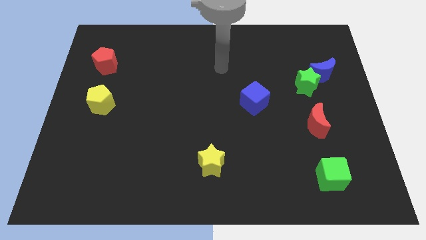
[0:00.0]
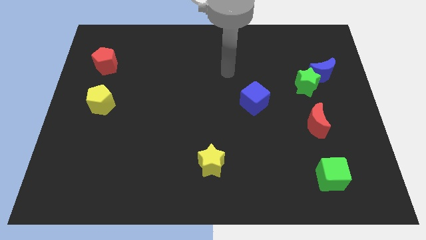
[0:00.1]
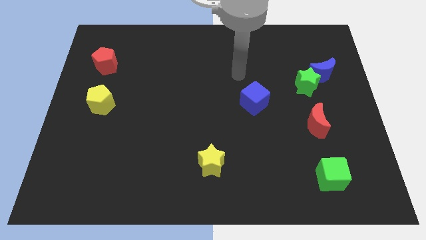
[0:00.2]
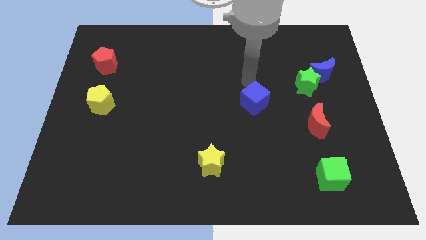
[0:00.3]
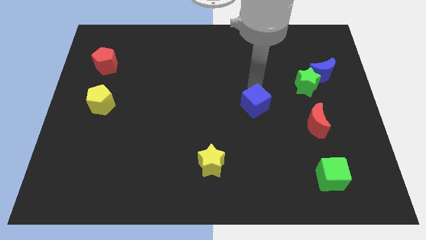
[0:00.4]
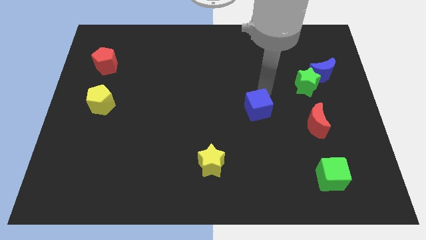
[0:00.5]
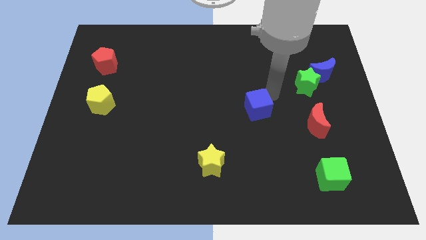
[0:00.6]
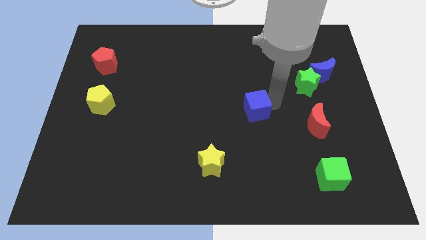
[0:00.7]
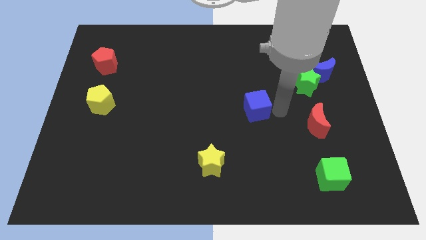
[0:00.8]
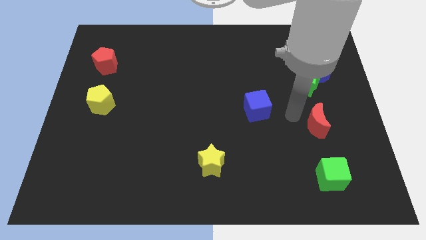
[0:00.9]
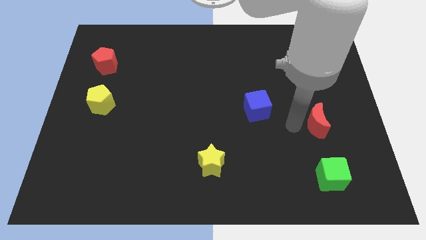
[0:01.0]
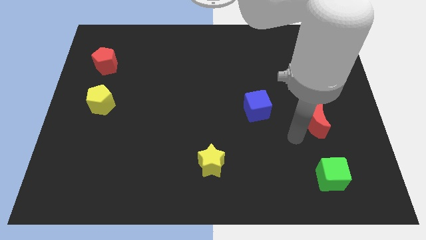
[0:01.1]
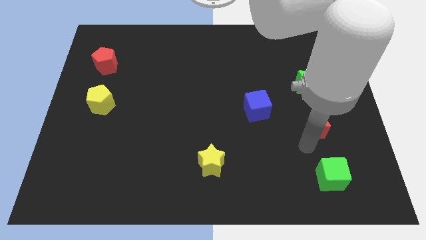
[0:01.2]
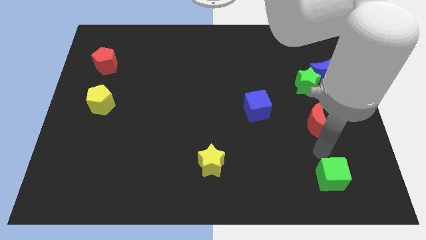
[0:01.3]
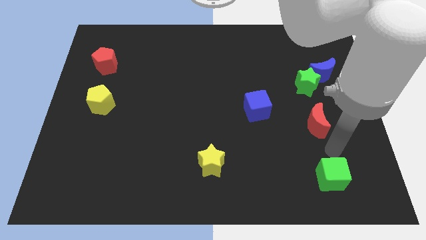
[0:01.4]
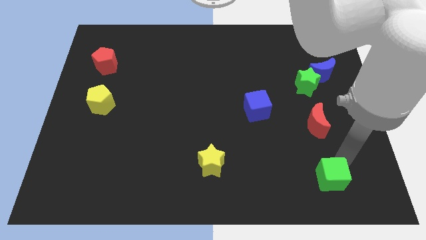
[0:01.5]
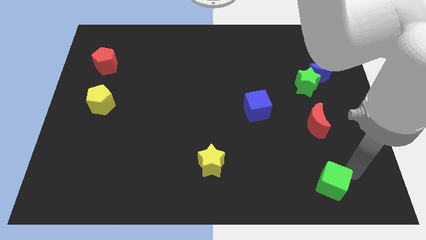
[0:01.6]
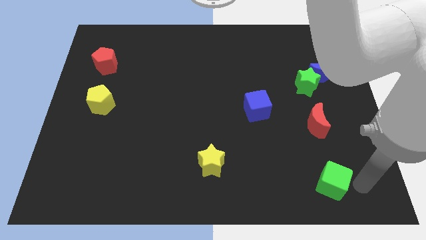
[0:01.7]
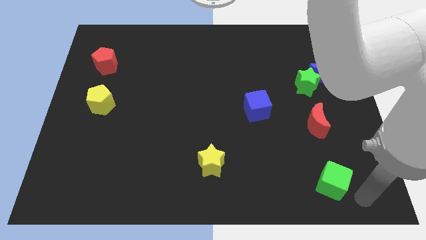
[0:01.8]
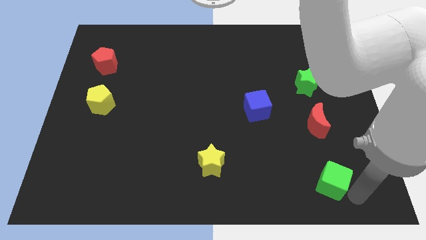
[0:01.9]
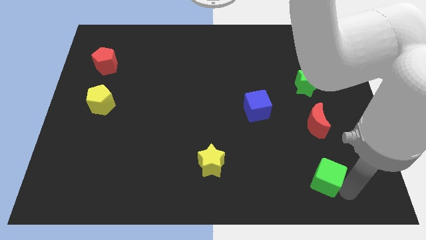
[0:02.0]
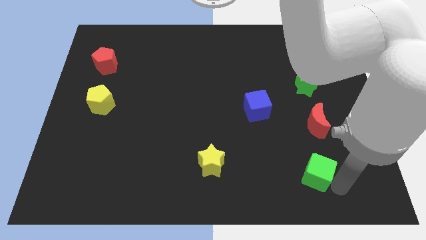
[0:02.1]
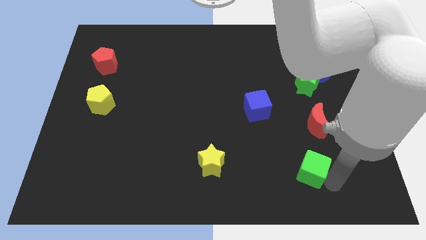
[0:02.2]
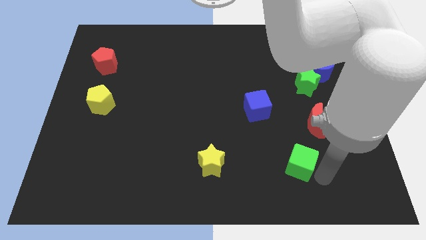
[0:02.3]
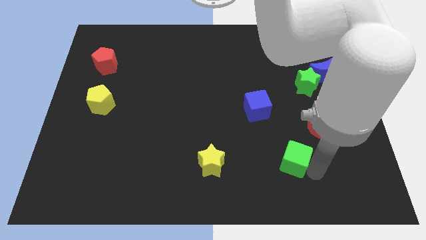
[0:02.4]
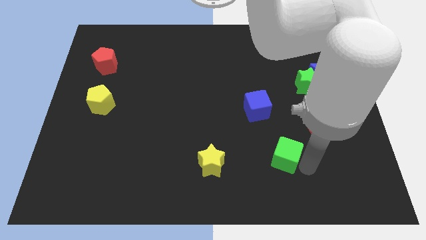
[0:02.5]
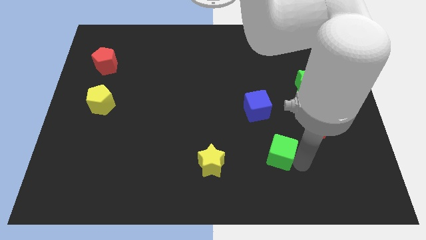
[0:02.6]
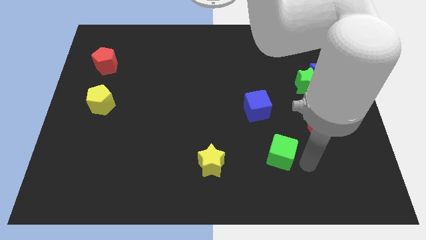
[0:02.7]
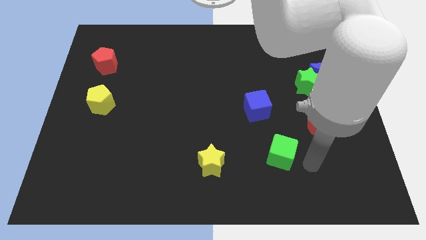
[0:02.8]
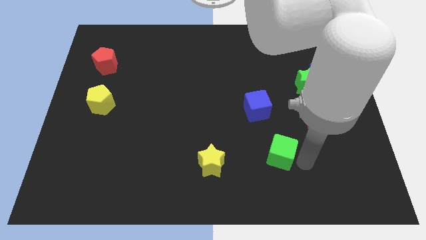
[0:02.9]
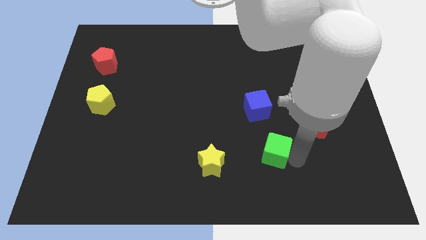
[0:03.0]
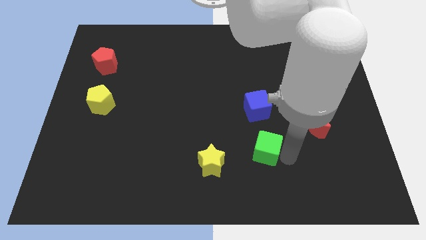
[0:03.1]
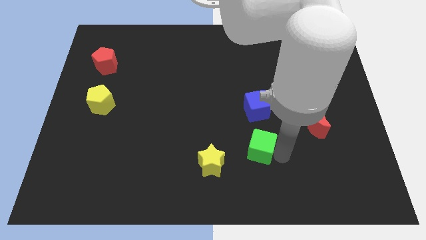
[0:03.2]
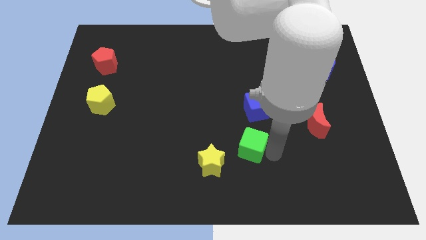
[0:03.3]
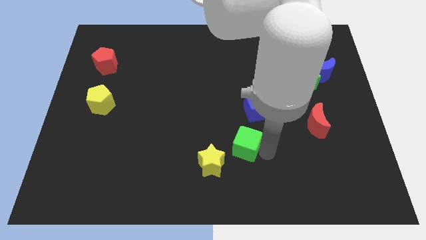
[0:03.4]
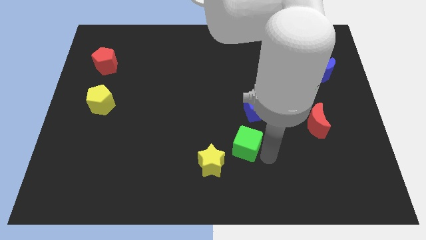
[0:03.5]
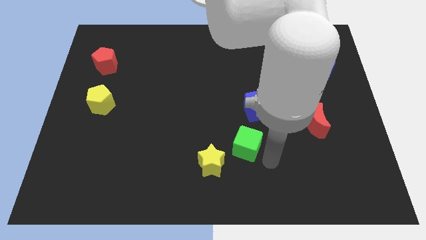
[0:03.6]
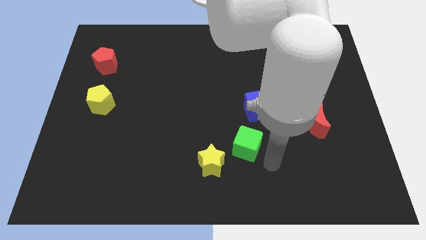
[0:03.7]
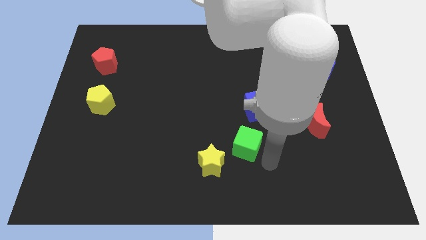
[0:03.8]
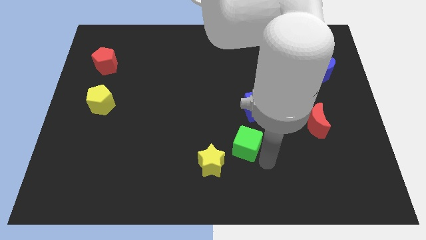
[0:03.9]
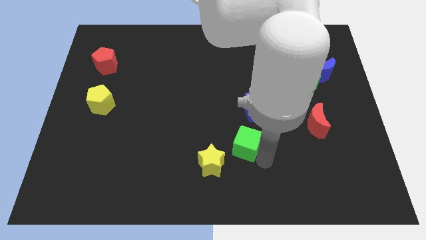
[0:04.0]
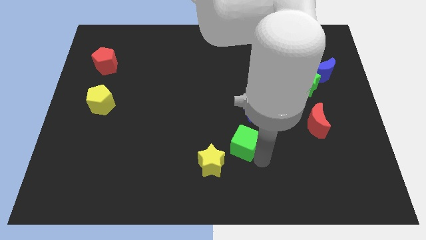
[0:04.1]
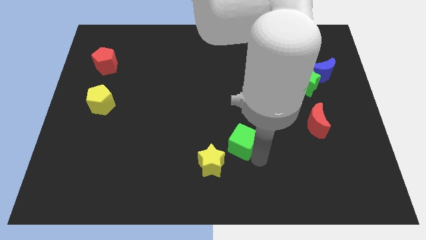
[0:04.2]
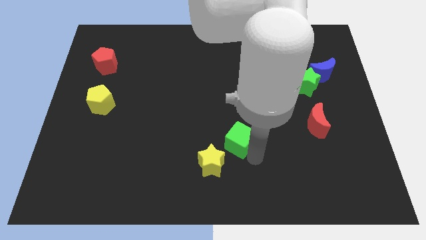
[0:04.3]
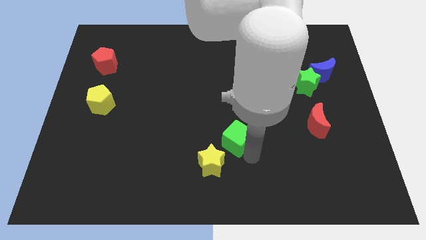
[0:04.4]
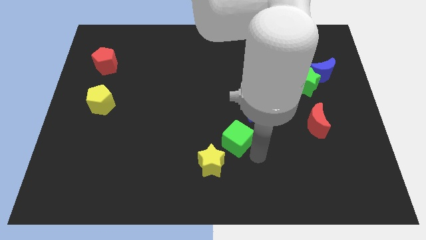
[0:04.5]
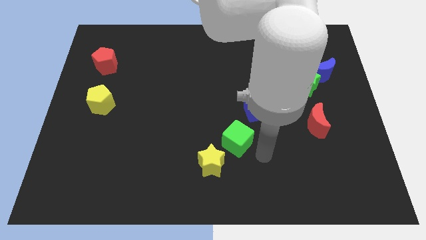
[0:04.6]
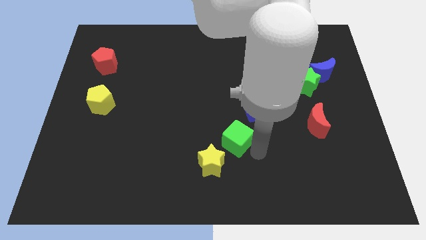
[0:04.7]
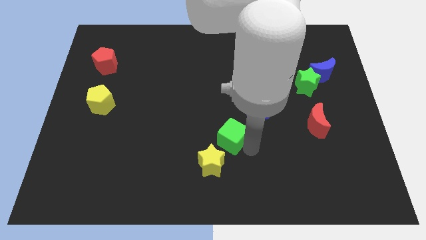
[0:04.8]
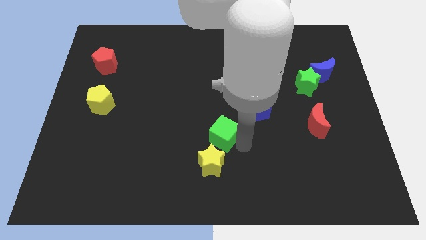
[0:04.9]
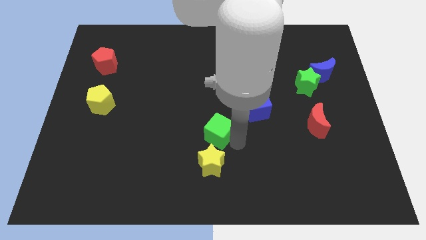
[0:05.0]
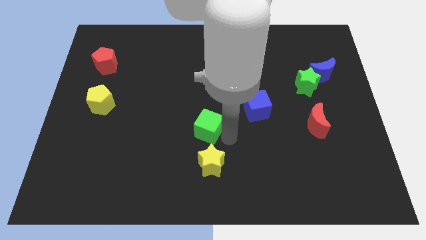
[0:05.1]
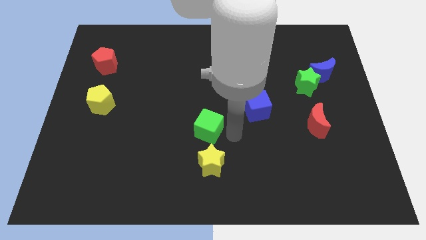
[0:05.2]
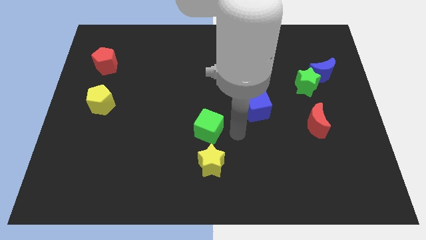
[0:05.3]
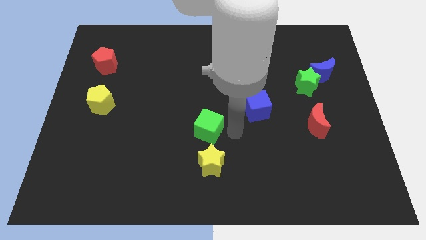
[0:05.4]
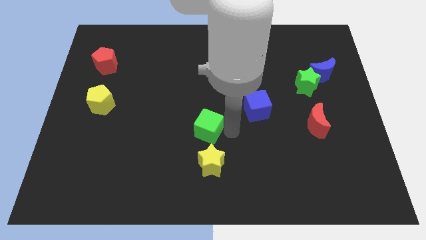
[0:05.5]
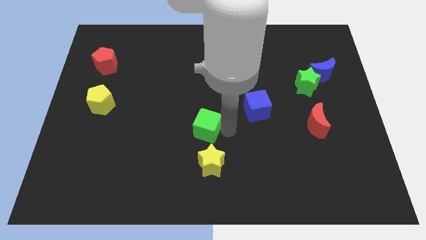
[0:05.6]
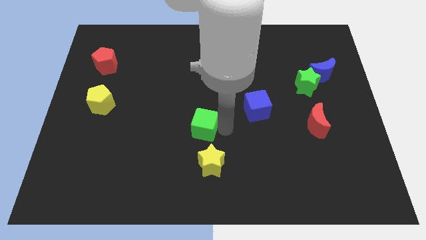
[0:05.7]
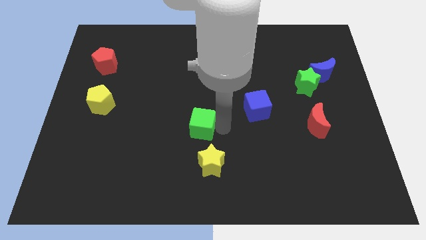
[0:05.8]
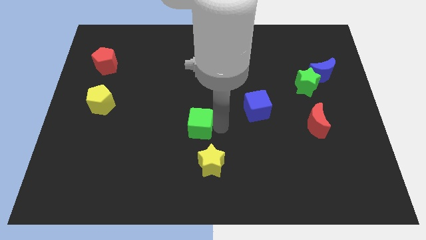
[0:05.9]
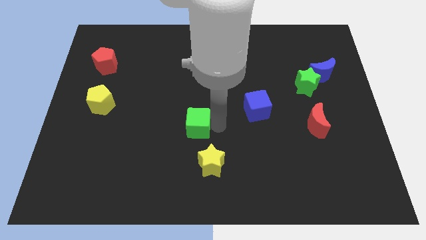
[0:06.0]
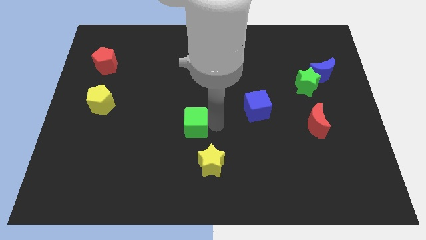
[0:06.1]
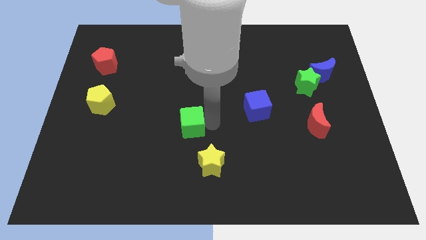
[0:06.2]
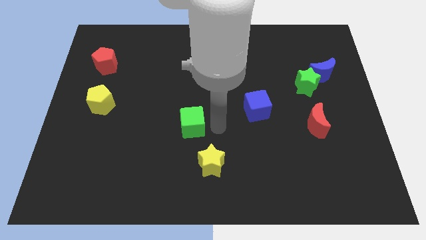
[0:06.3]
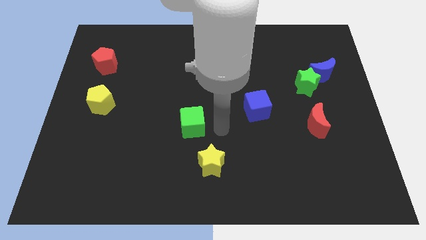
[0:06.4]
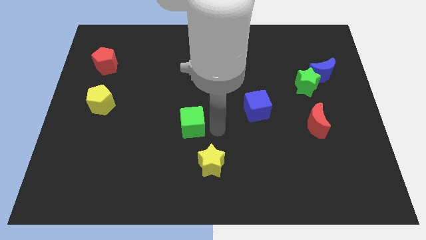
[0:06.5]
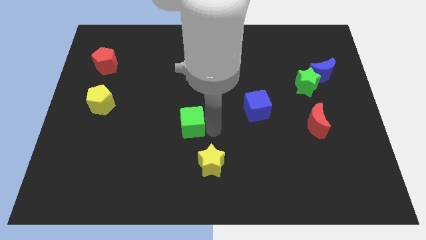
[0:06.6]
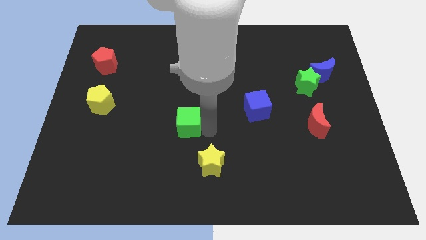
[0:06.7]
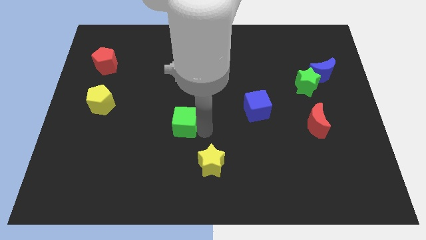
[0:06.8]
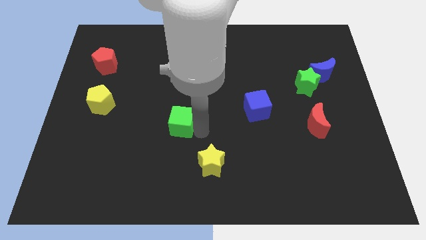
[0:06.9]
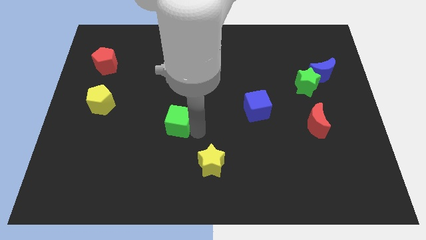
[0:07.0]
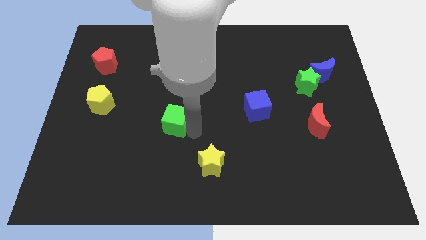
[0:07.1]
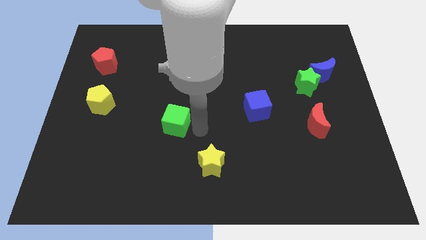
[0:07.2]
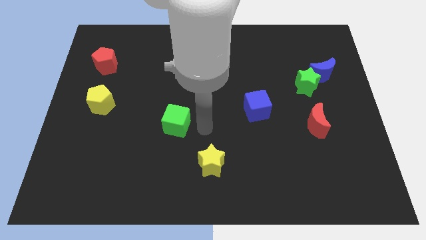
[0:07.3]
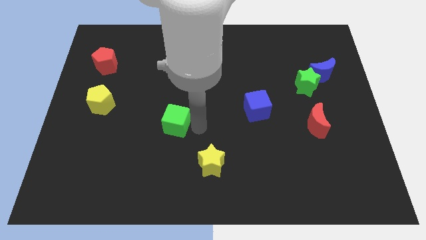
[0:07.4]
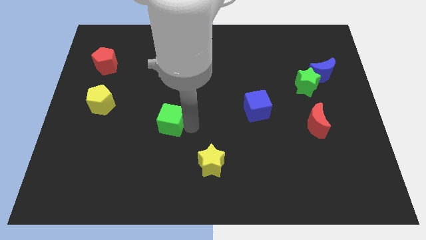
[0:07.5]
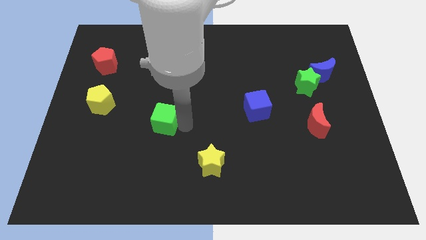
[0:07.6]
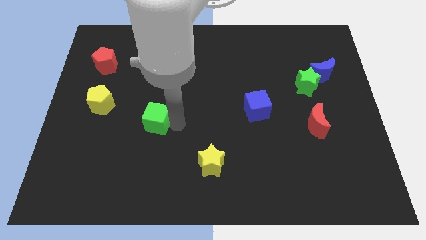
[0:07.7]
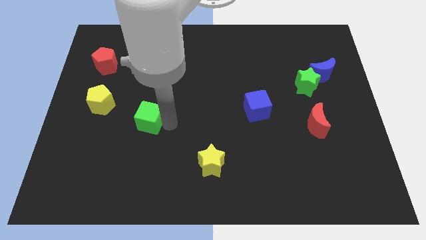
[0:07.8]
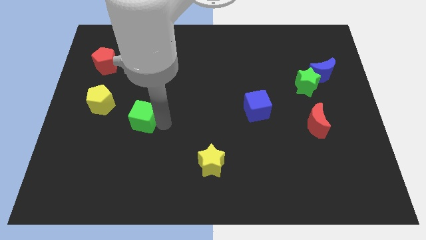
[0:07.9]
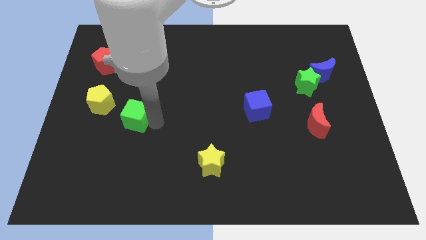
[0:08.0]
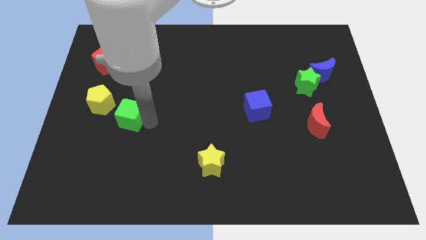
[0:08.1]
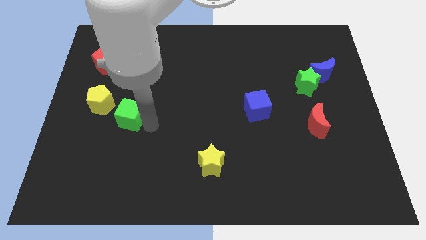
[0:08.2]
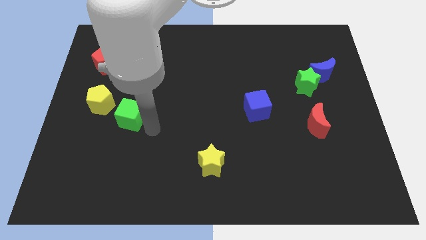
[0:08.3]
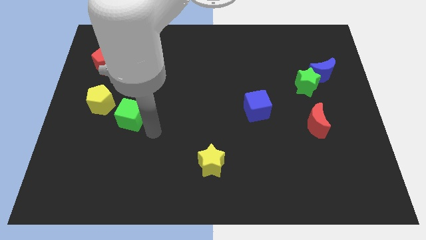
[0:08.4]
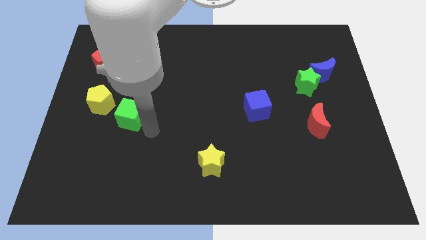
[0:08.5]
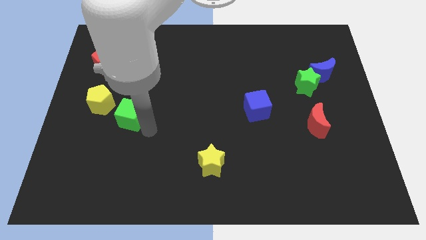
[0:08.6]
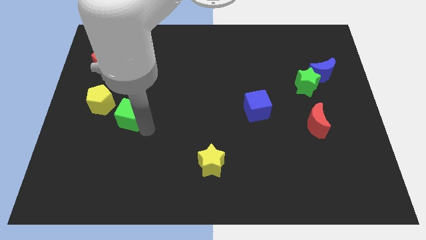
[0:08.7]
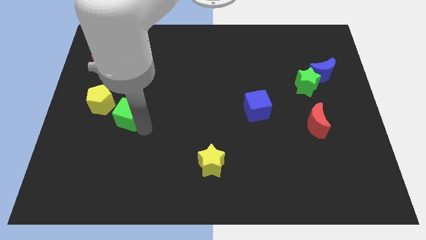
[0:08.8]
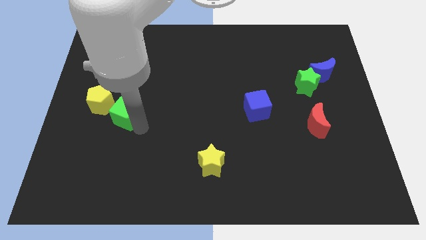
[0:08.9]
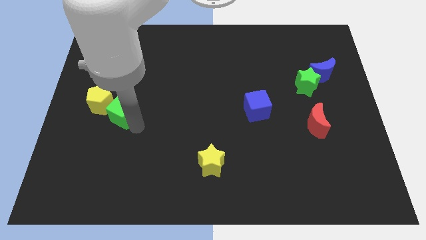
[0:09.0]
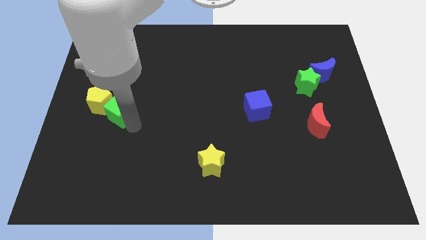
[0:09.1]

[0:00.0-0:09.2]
push the green cube close to the yellow pentagon
